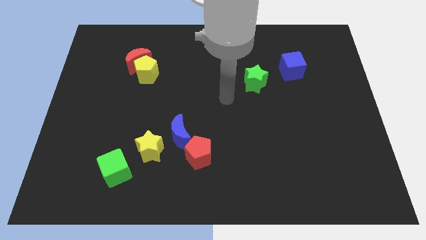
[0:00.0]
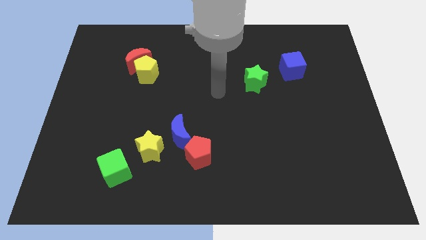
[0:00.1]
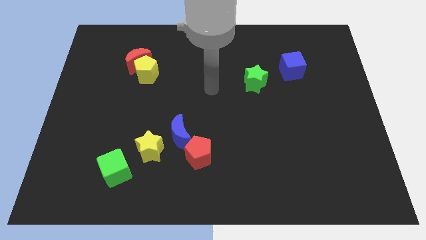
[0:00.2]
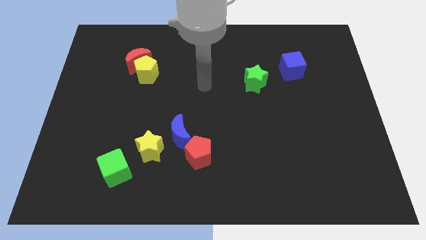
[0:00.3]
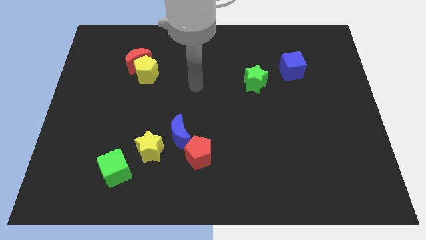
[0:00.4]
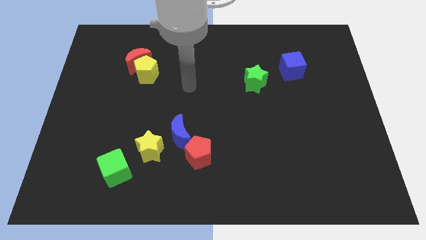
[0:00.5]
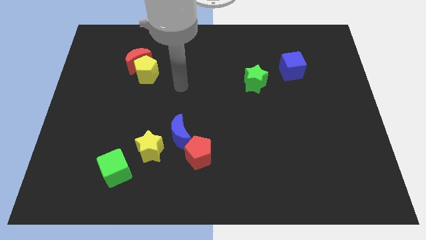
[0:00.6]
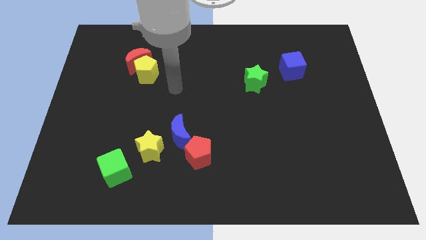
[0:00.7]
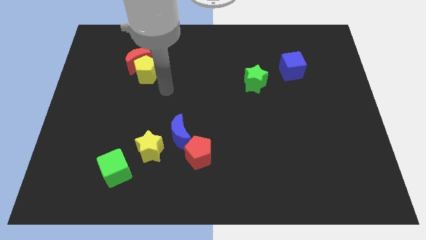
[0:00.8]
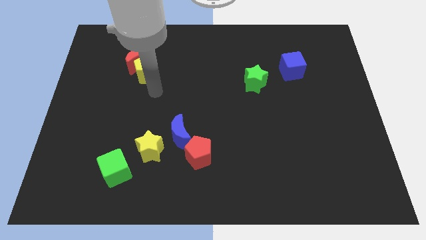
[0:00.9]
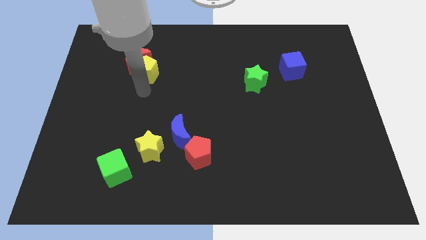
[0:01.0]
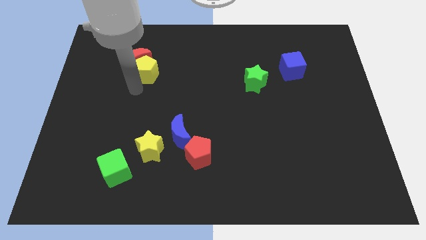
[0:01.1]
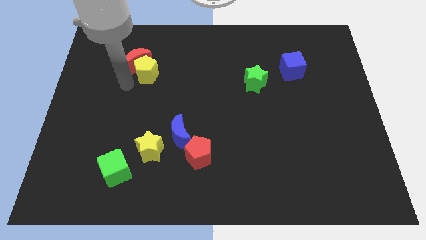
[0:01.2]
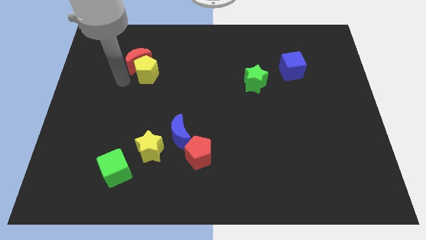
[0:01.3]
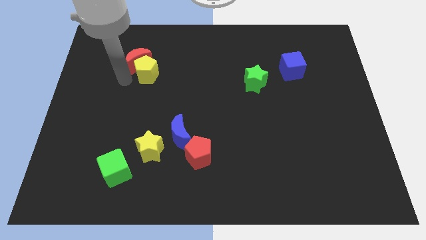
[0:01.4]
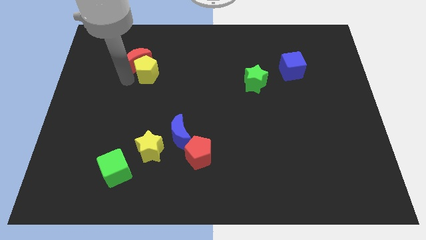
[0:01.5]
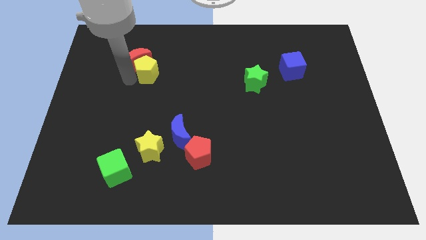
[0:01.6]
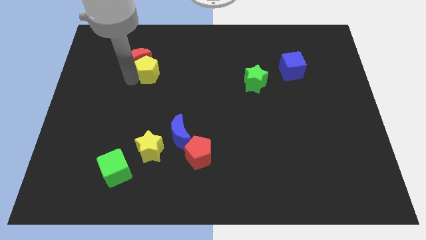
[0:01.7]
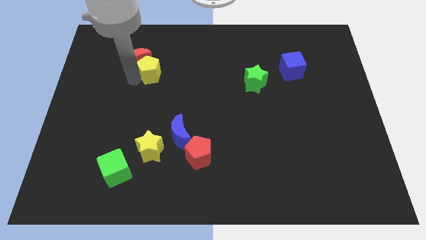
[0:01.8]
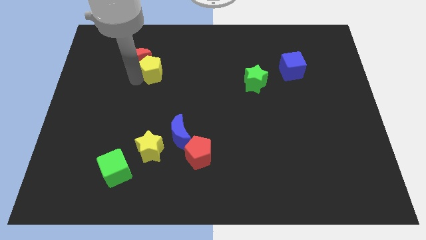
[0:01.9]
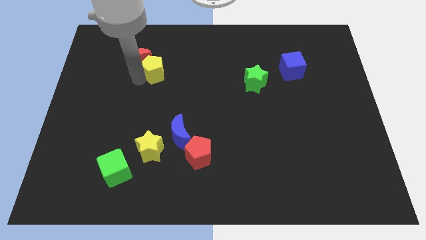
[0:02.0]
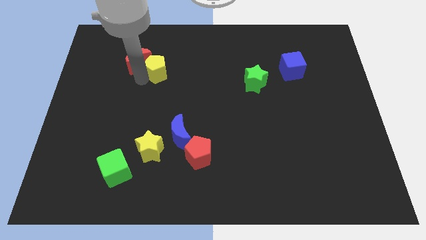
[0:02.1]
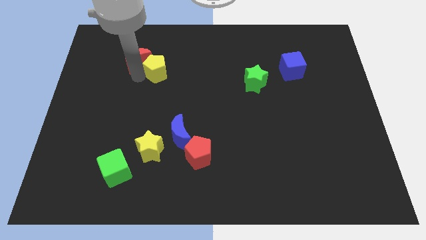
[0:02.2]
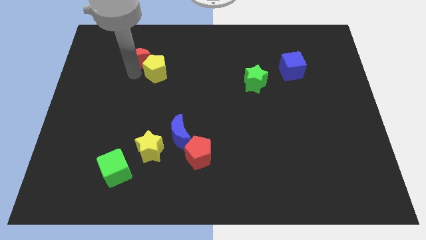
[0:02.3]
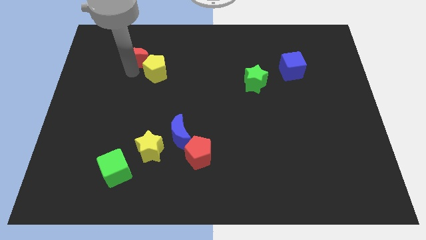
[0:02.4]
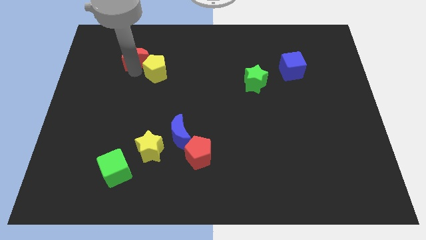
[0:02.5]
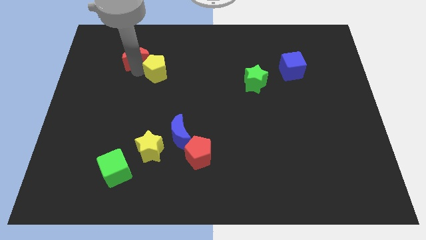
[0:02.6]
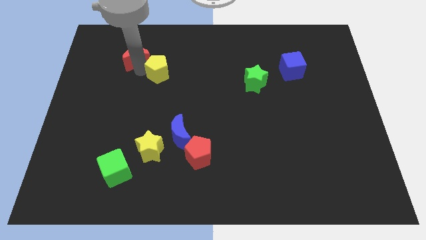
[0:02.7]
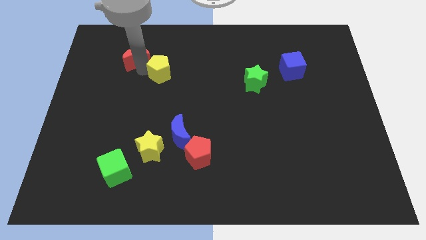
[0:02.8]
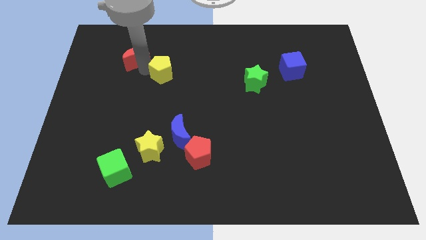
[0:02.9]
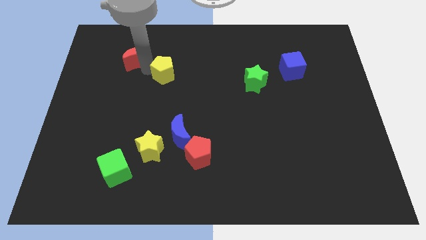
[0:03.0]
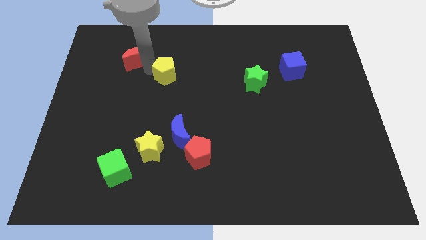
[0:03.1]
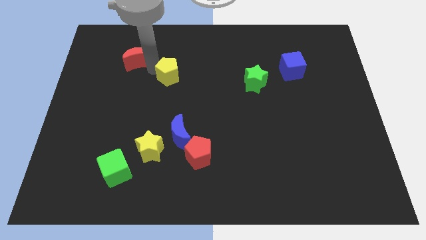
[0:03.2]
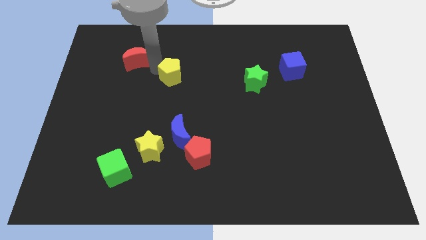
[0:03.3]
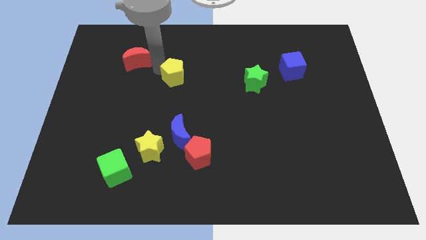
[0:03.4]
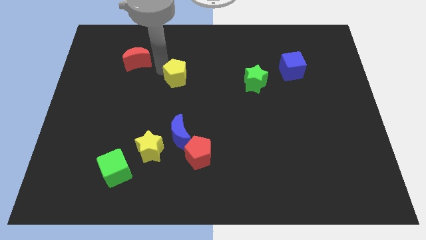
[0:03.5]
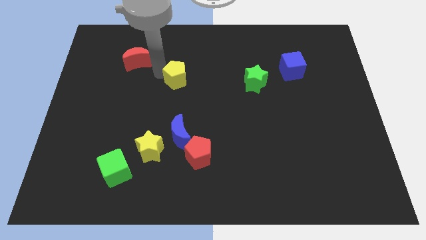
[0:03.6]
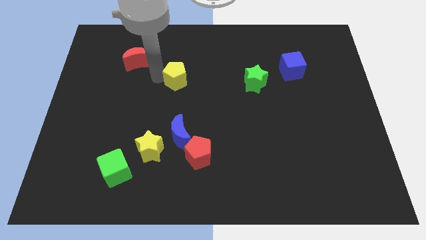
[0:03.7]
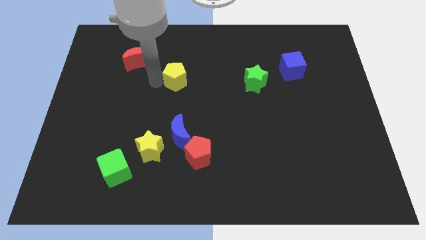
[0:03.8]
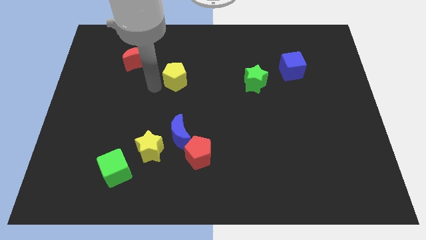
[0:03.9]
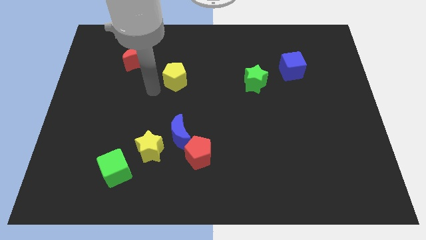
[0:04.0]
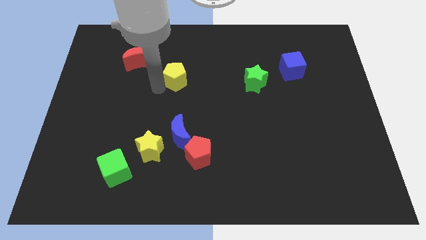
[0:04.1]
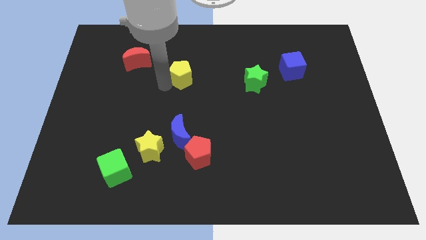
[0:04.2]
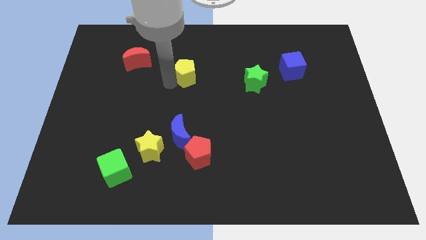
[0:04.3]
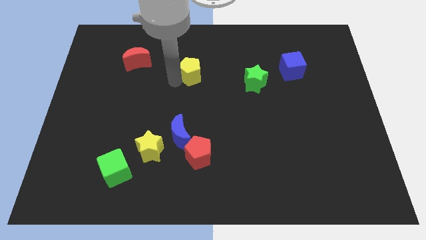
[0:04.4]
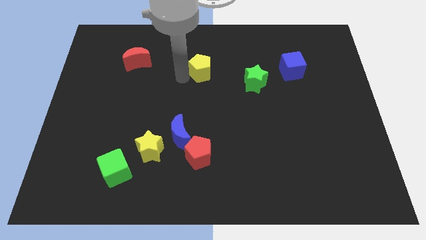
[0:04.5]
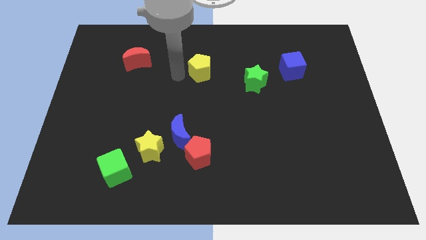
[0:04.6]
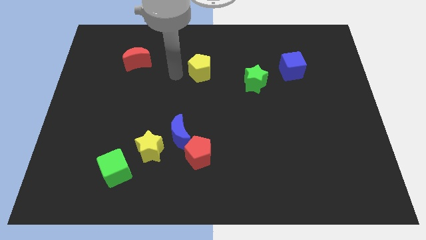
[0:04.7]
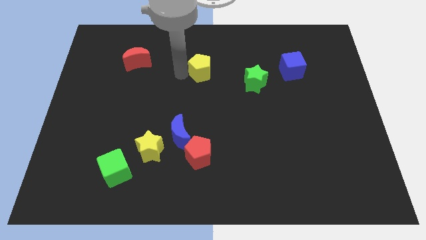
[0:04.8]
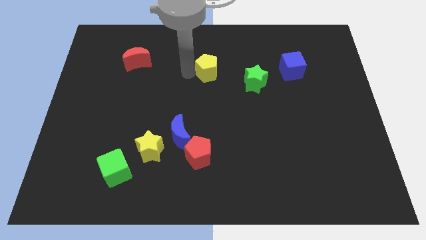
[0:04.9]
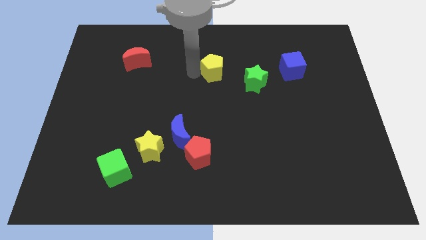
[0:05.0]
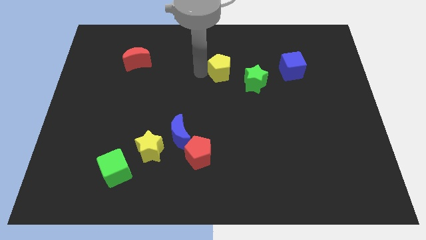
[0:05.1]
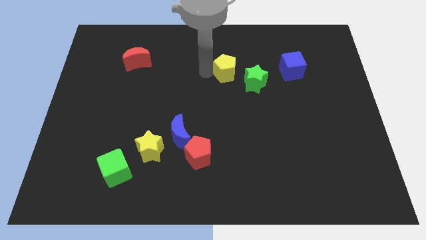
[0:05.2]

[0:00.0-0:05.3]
push the yellow pentagon right

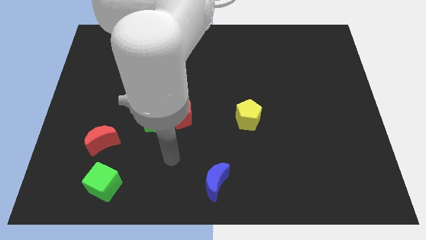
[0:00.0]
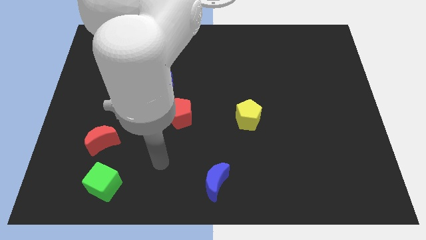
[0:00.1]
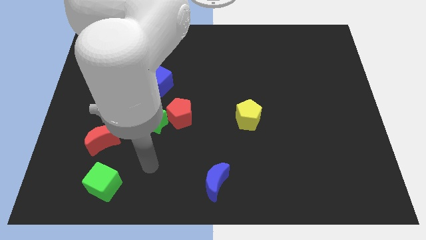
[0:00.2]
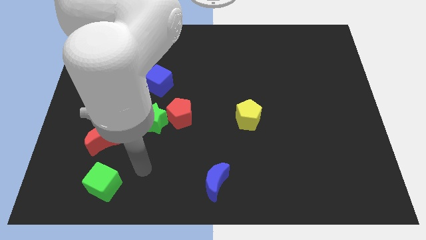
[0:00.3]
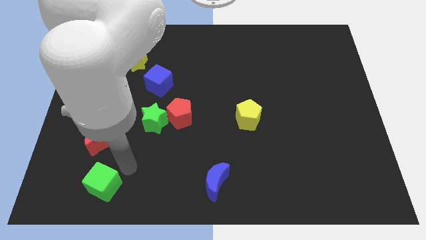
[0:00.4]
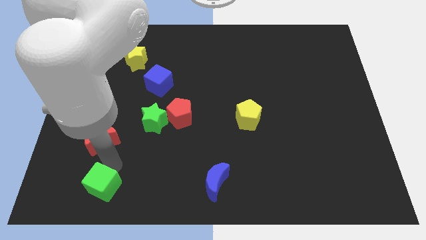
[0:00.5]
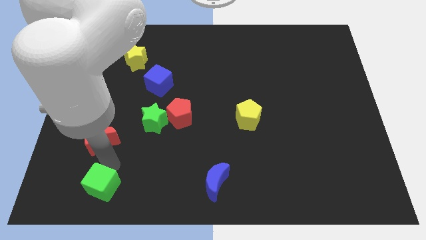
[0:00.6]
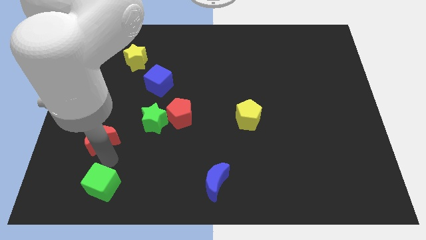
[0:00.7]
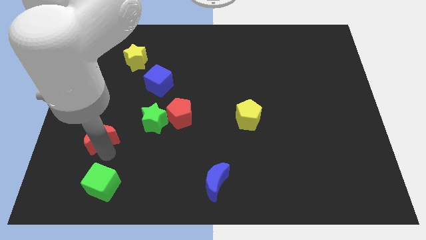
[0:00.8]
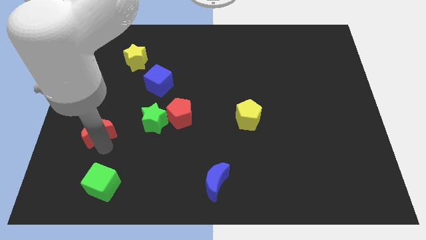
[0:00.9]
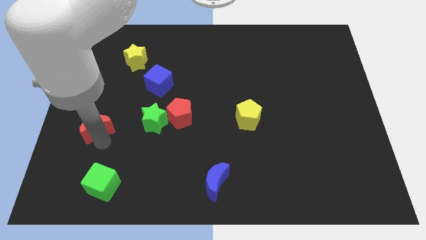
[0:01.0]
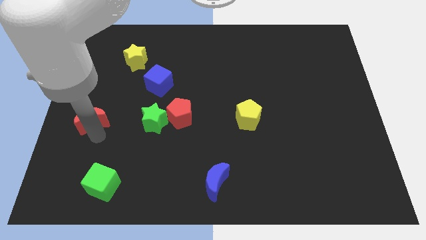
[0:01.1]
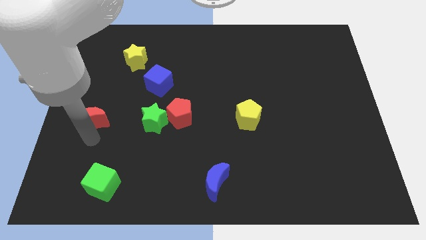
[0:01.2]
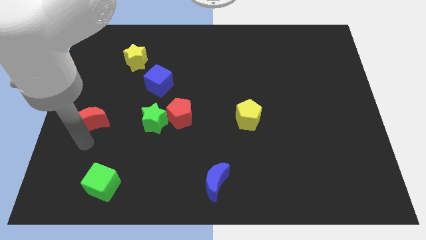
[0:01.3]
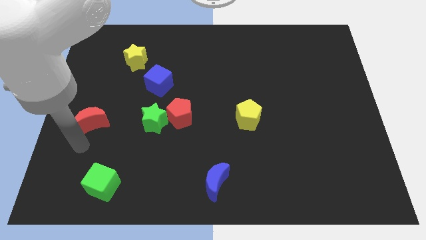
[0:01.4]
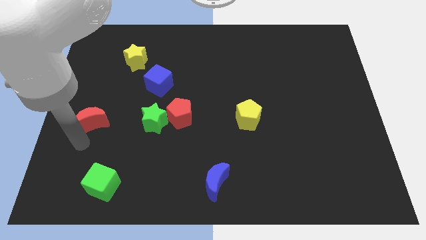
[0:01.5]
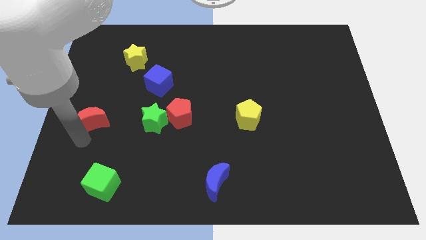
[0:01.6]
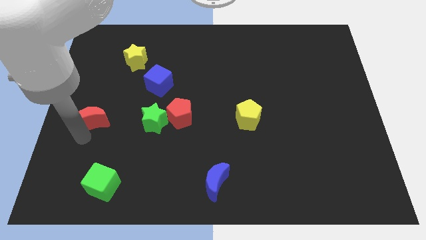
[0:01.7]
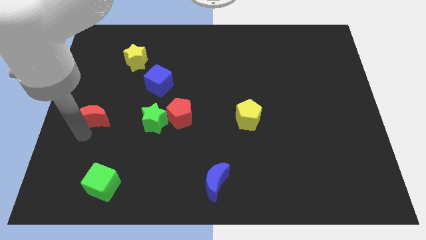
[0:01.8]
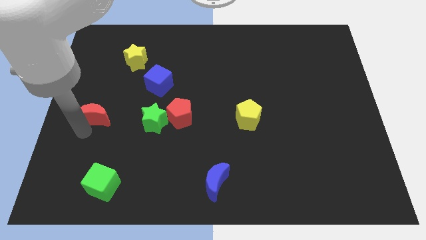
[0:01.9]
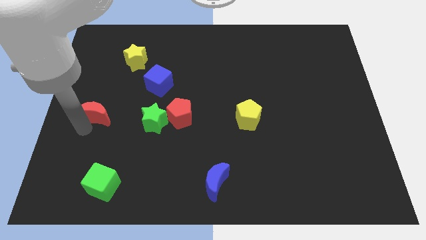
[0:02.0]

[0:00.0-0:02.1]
slightly push the red moon up

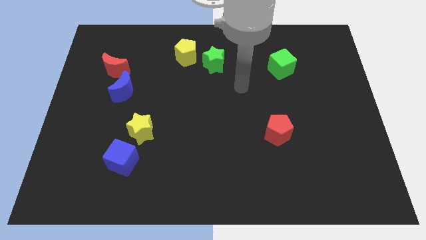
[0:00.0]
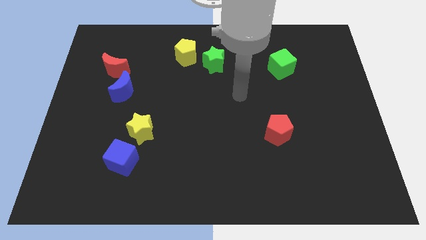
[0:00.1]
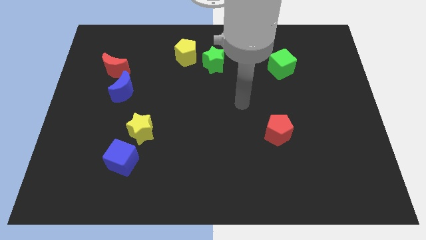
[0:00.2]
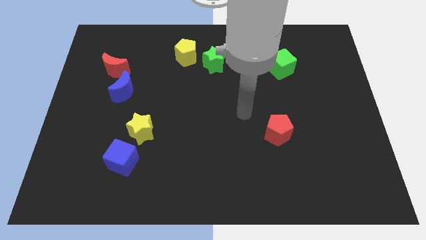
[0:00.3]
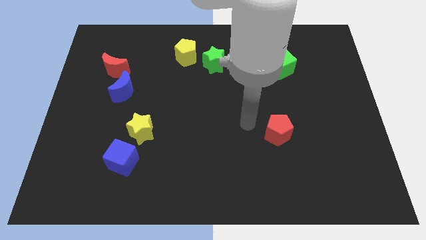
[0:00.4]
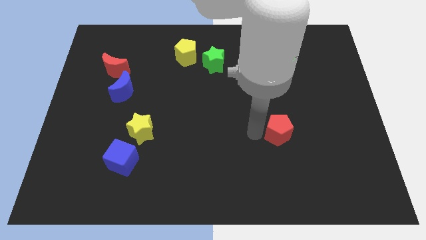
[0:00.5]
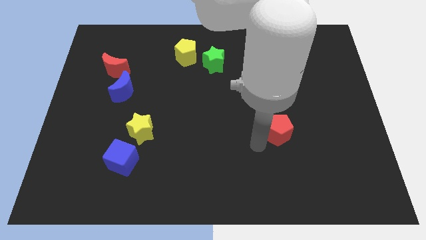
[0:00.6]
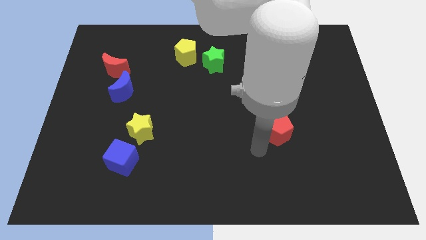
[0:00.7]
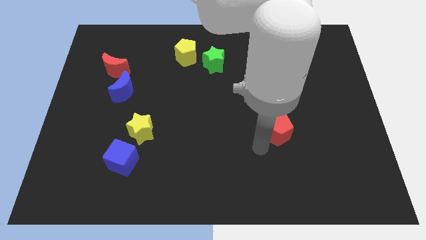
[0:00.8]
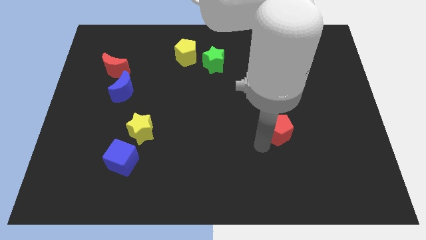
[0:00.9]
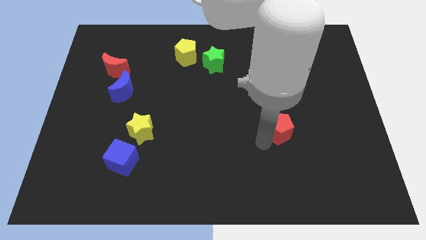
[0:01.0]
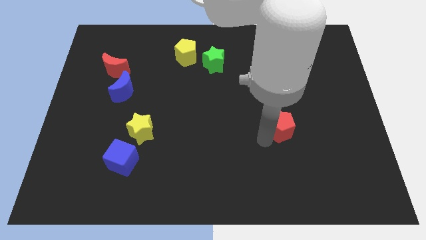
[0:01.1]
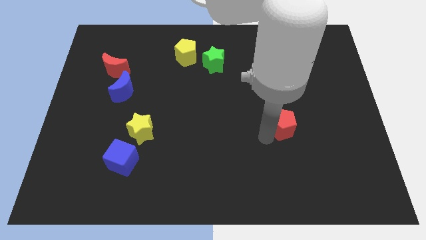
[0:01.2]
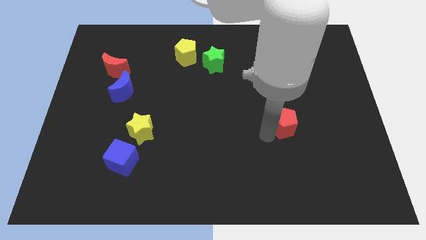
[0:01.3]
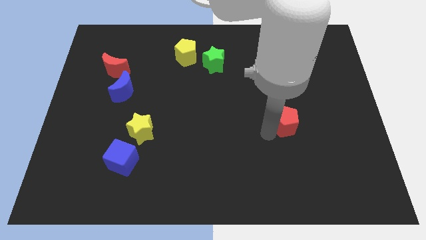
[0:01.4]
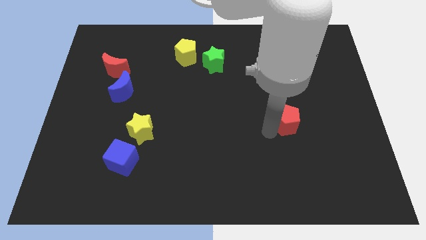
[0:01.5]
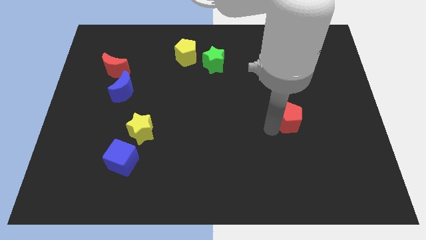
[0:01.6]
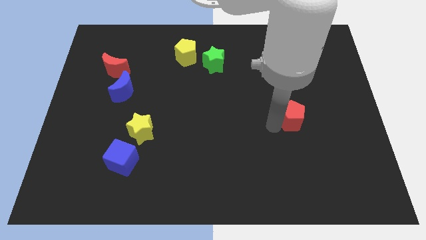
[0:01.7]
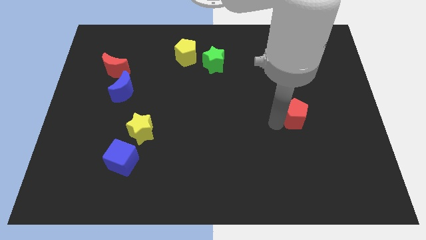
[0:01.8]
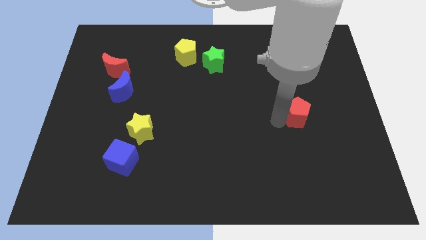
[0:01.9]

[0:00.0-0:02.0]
push the red pentagon a little bit upwards and to the right
